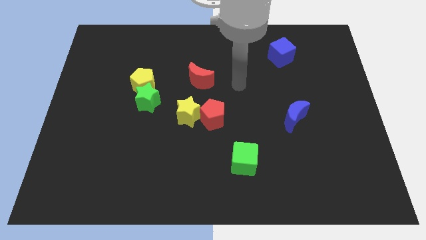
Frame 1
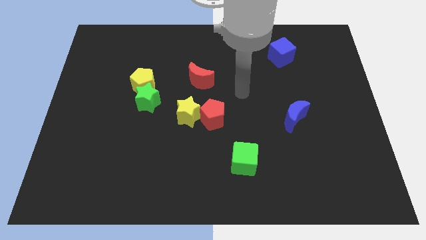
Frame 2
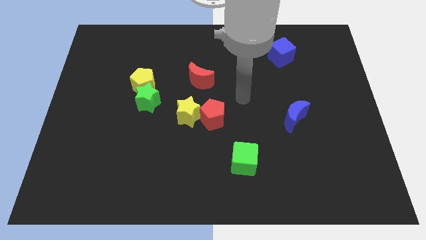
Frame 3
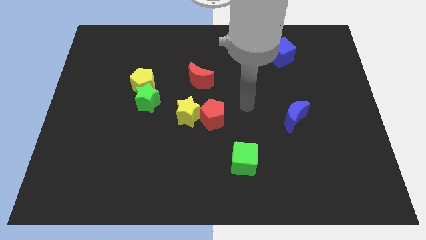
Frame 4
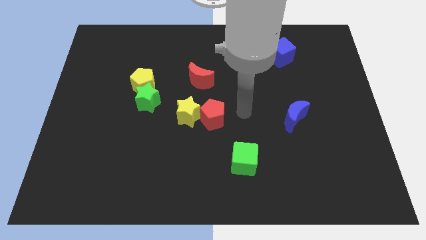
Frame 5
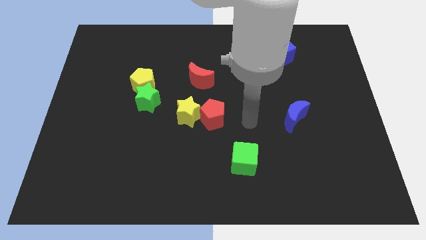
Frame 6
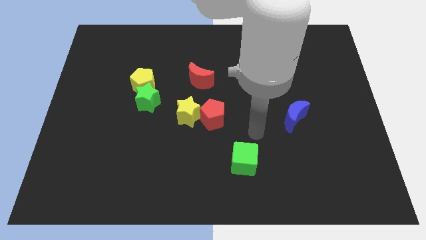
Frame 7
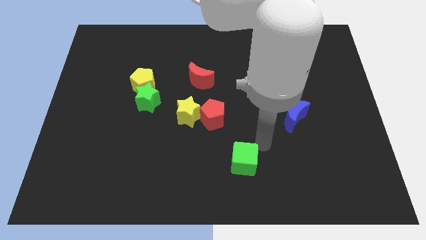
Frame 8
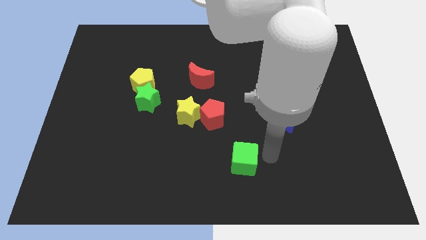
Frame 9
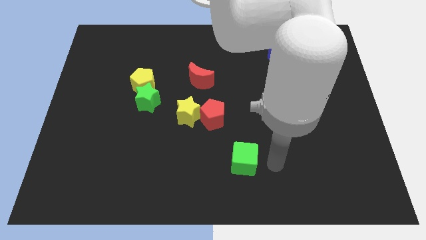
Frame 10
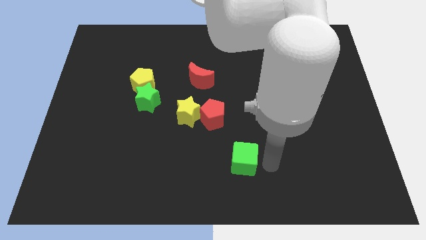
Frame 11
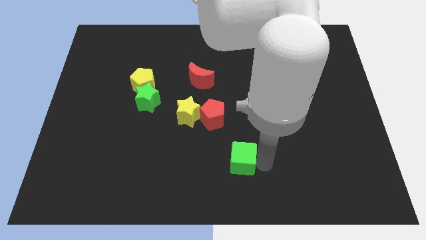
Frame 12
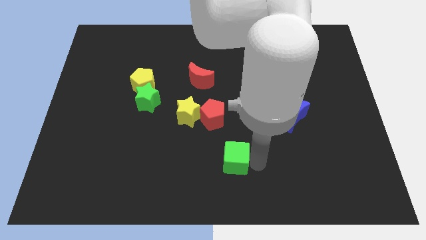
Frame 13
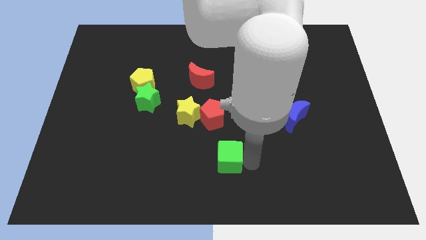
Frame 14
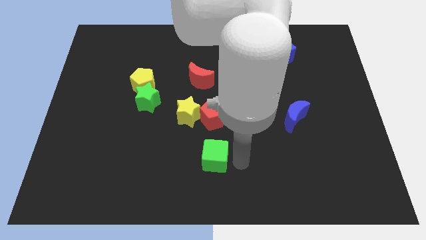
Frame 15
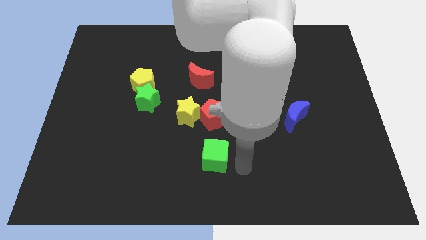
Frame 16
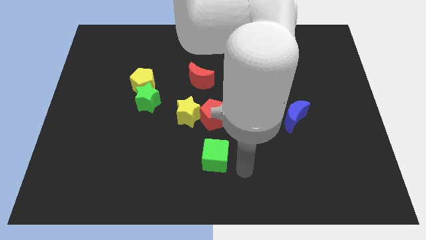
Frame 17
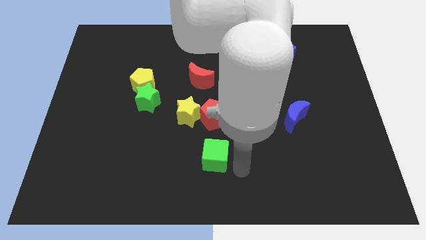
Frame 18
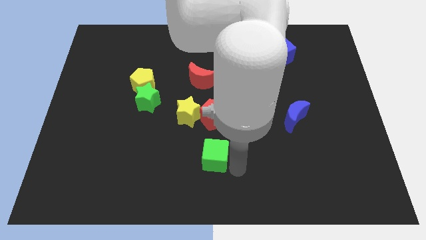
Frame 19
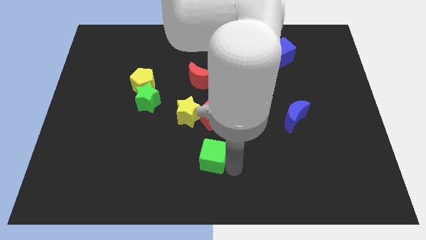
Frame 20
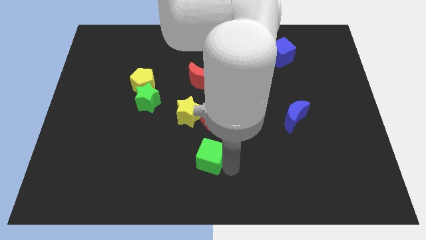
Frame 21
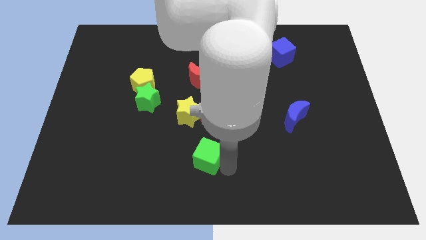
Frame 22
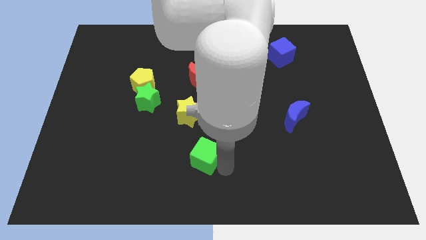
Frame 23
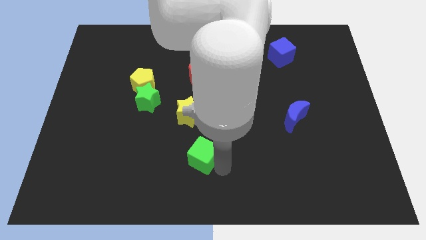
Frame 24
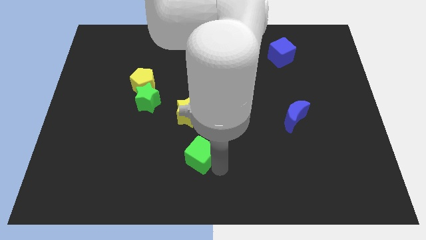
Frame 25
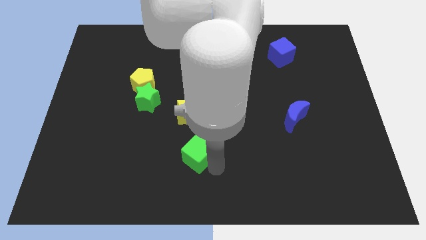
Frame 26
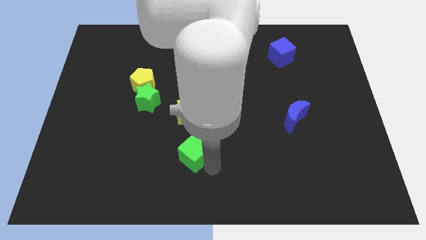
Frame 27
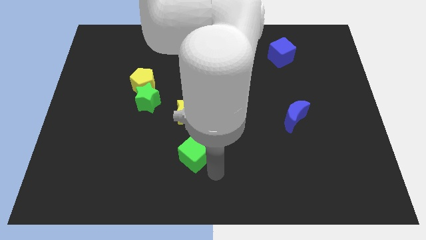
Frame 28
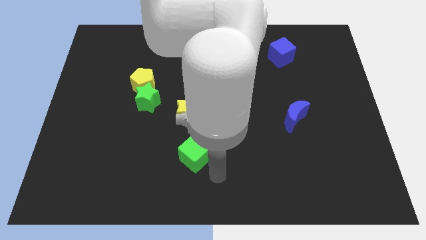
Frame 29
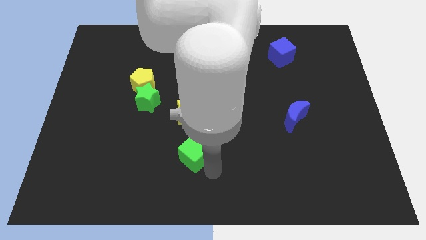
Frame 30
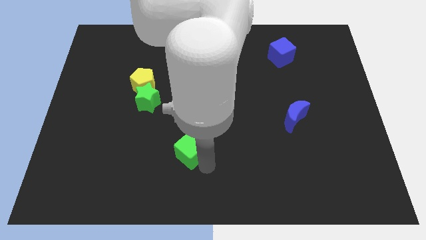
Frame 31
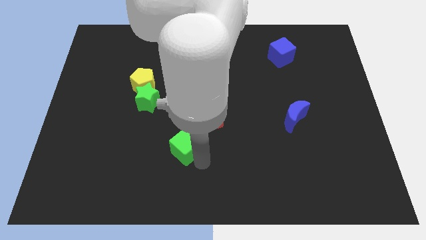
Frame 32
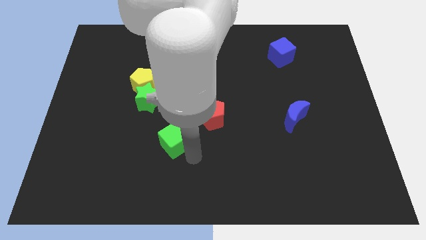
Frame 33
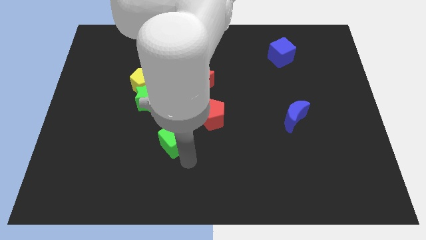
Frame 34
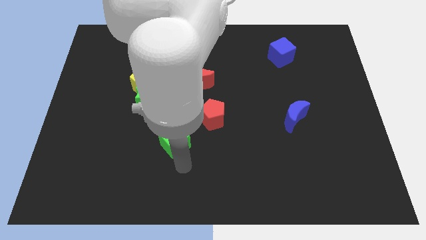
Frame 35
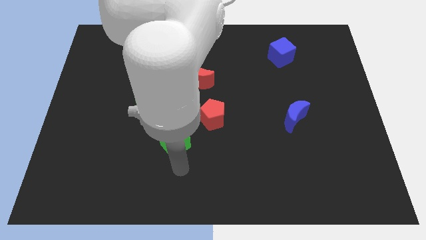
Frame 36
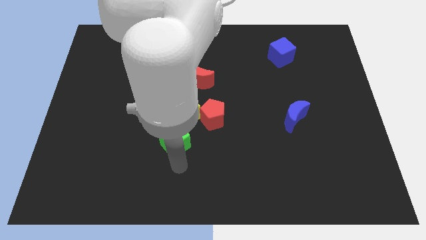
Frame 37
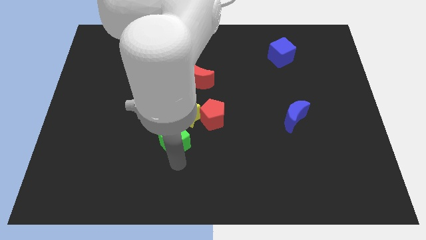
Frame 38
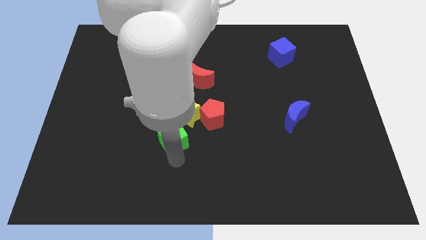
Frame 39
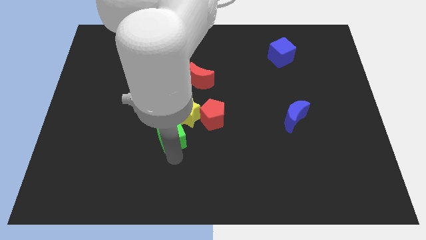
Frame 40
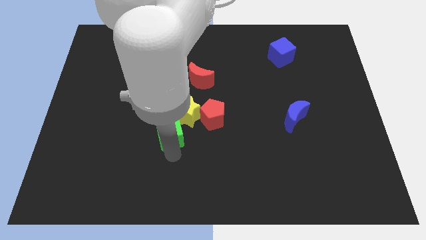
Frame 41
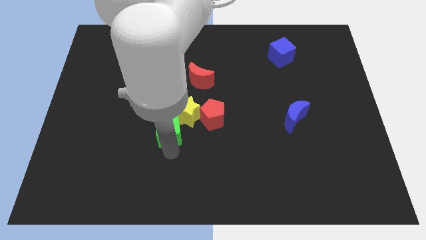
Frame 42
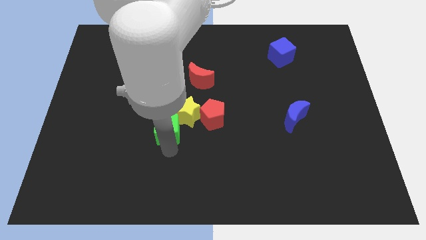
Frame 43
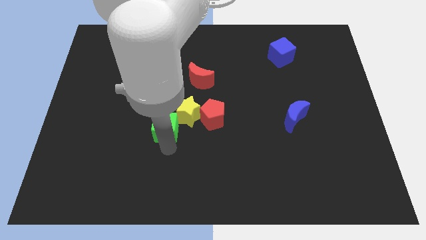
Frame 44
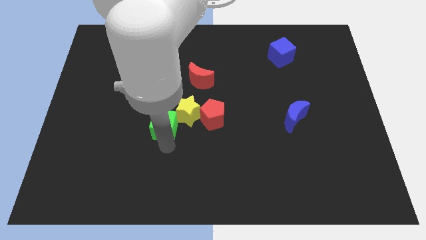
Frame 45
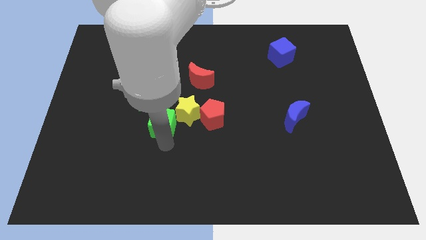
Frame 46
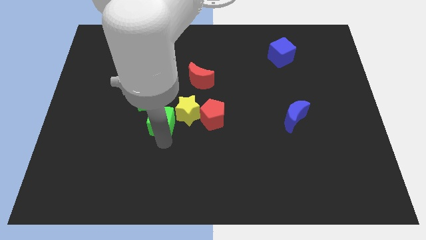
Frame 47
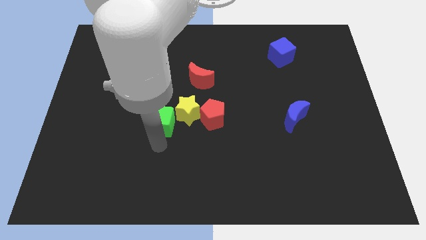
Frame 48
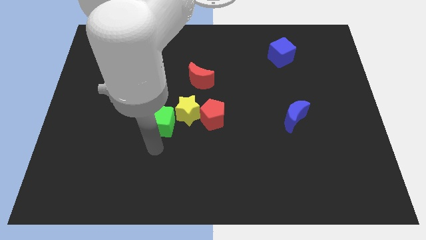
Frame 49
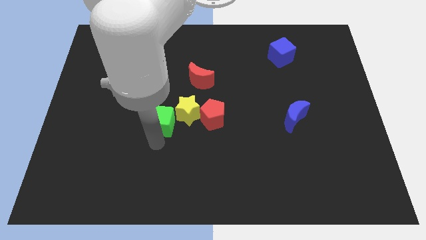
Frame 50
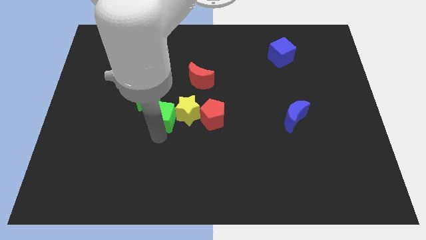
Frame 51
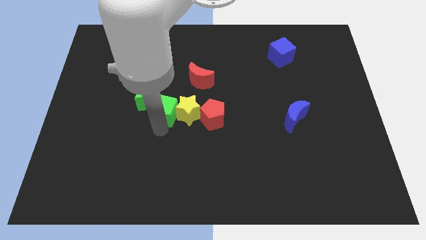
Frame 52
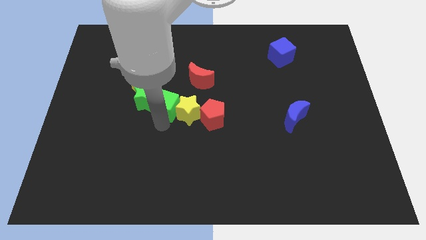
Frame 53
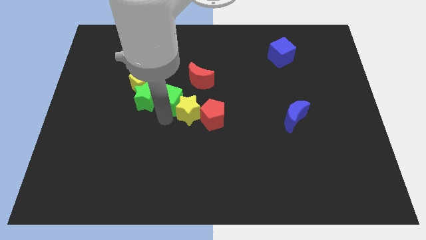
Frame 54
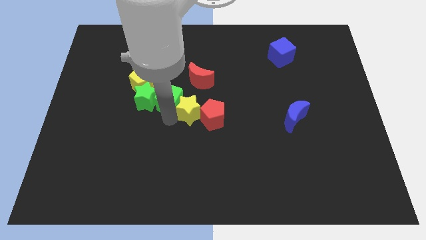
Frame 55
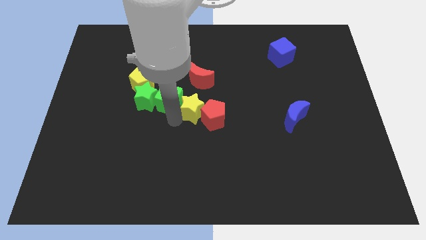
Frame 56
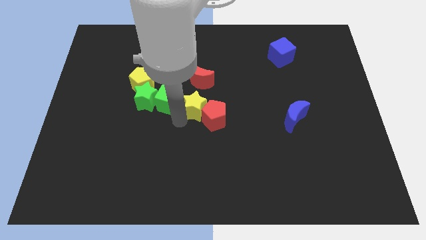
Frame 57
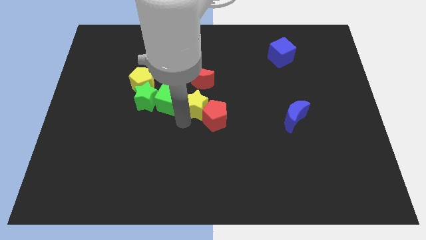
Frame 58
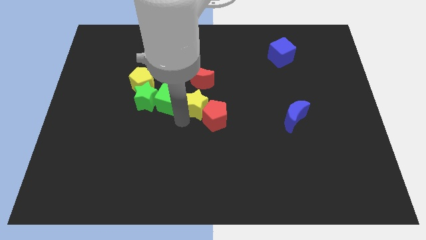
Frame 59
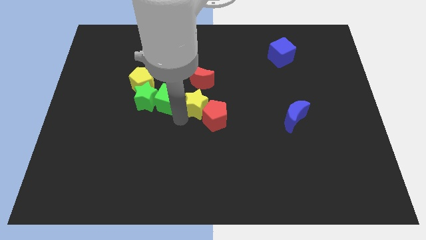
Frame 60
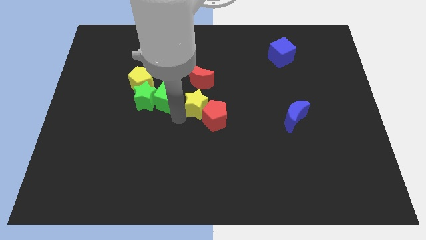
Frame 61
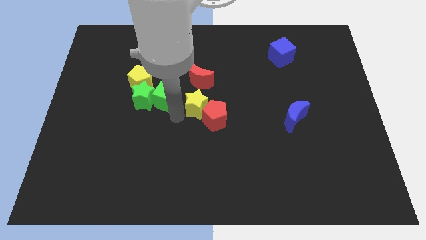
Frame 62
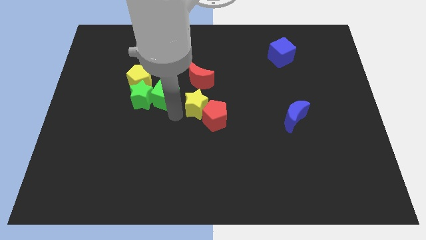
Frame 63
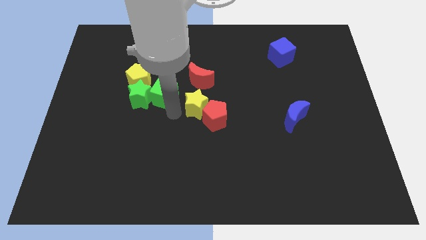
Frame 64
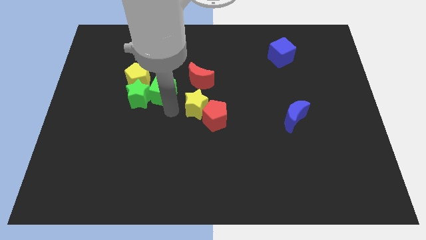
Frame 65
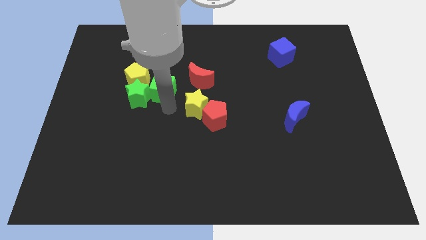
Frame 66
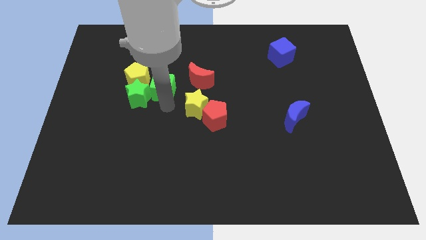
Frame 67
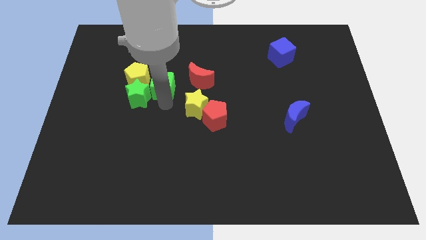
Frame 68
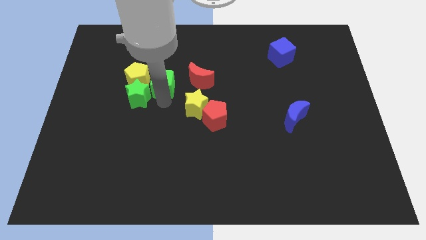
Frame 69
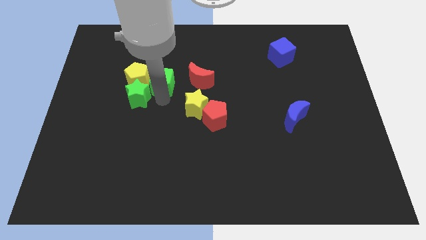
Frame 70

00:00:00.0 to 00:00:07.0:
push the green cube next to the yellow pentagon
